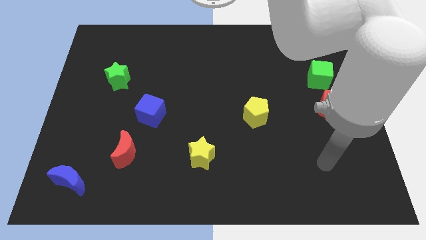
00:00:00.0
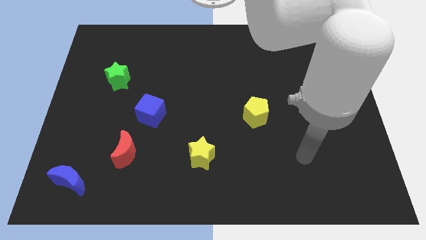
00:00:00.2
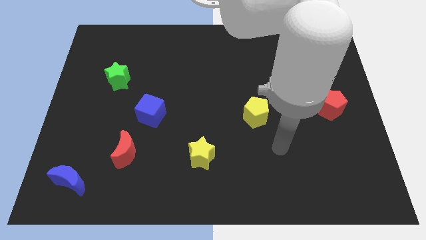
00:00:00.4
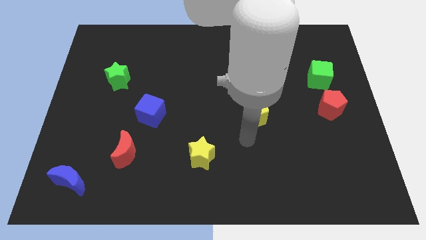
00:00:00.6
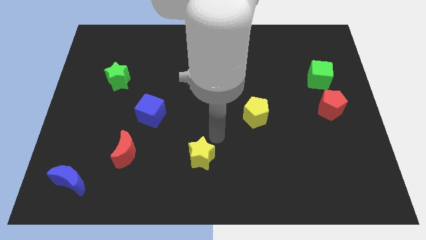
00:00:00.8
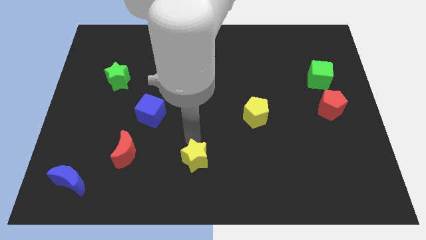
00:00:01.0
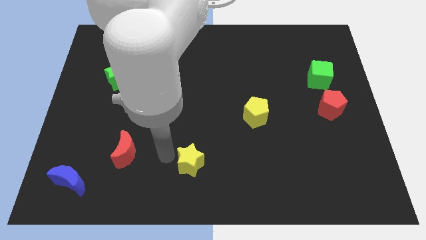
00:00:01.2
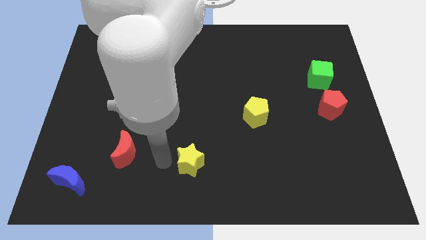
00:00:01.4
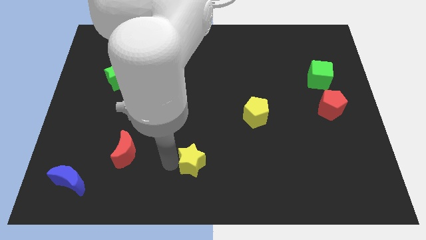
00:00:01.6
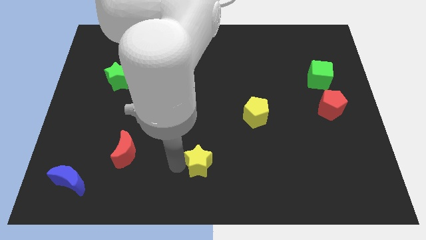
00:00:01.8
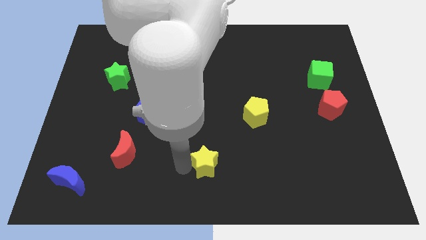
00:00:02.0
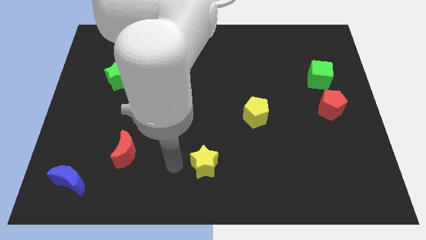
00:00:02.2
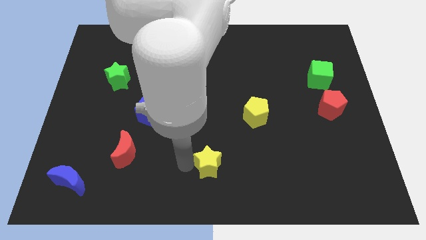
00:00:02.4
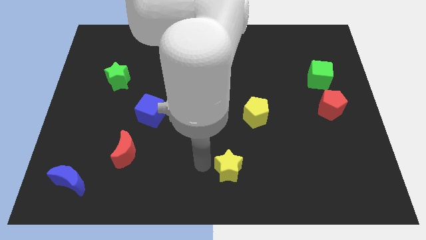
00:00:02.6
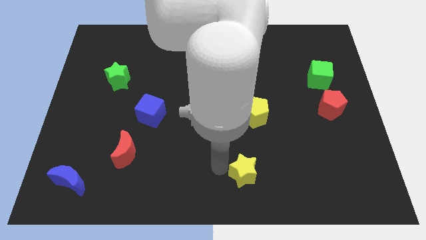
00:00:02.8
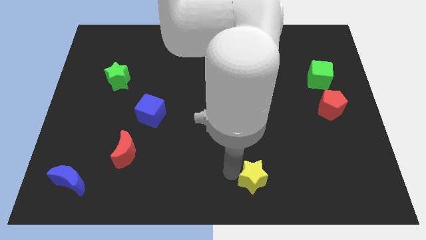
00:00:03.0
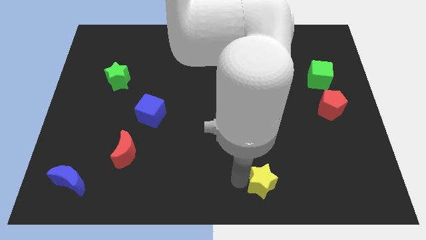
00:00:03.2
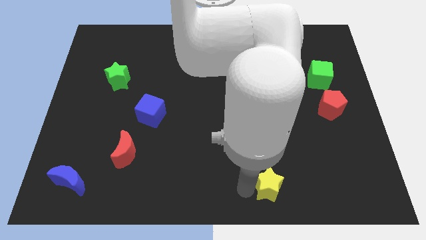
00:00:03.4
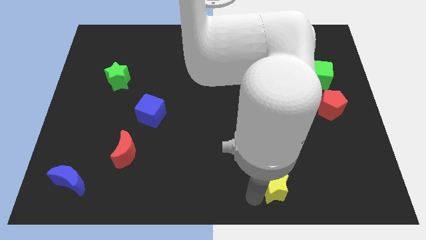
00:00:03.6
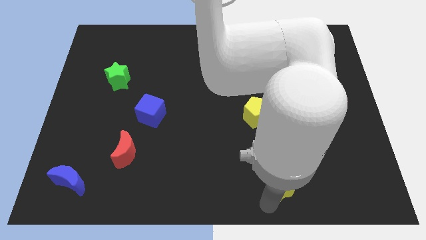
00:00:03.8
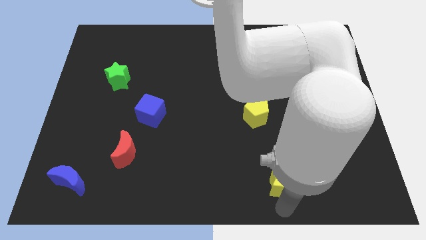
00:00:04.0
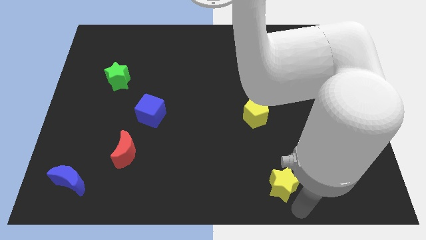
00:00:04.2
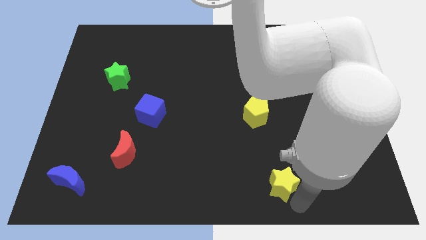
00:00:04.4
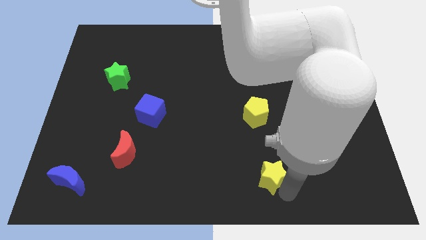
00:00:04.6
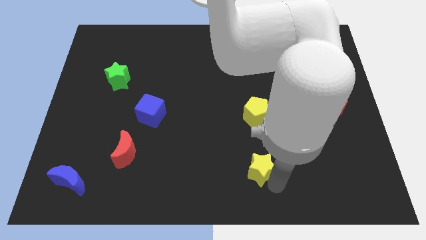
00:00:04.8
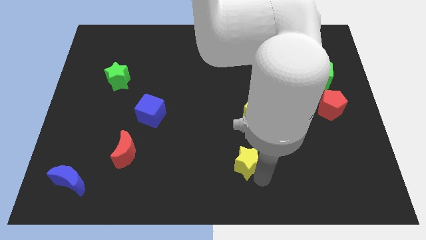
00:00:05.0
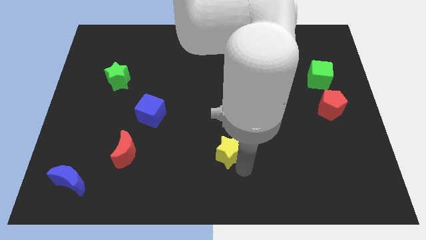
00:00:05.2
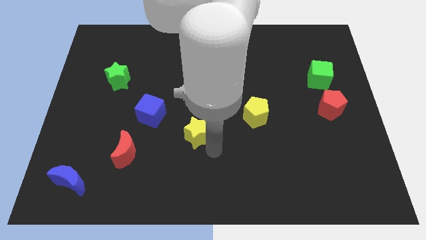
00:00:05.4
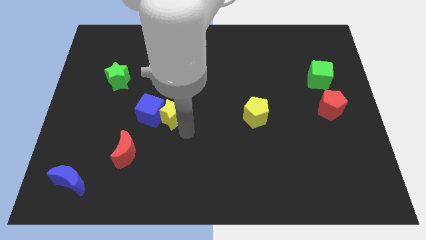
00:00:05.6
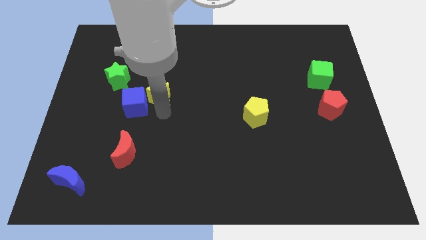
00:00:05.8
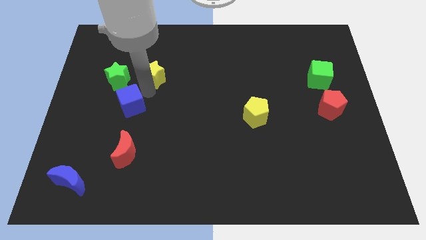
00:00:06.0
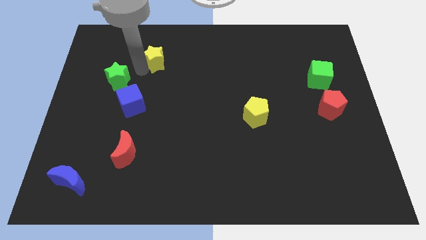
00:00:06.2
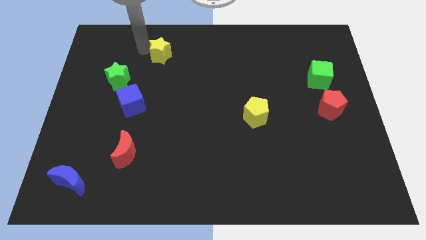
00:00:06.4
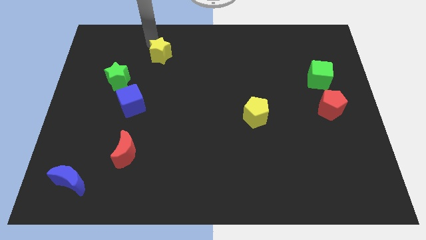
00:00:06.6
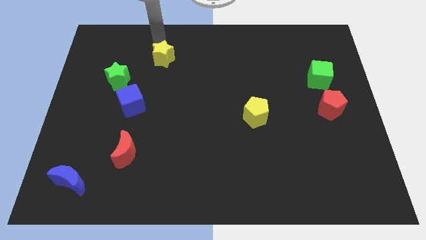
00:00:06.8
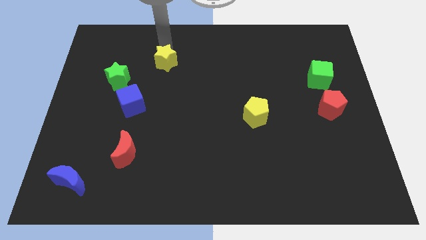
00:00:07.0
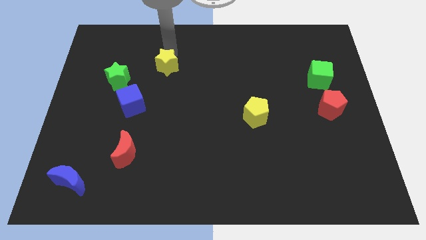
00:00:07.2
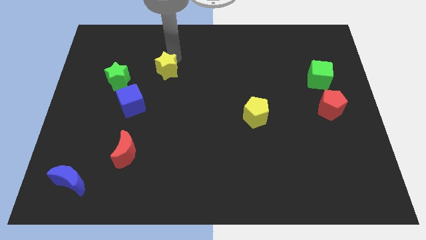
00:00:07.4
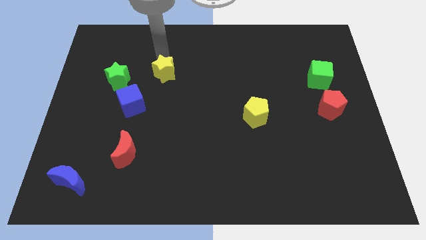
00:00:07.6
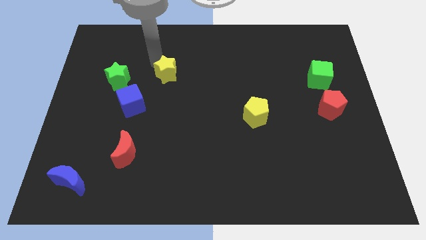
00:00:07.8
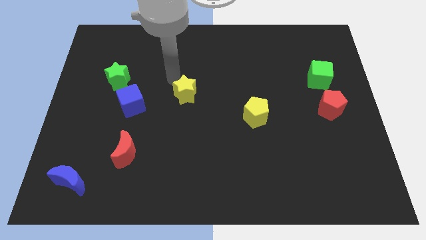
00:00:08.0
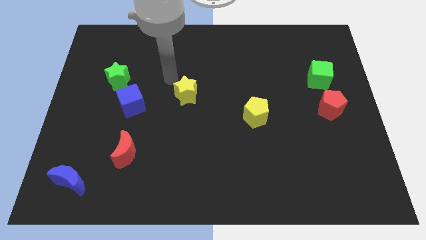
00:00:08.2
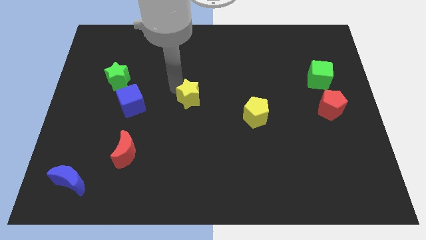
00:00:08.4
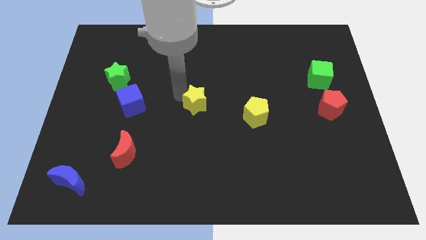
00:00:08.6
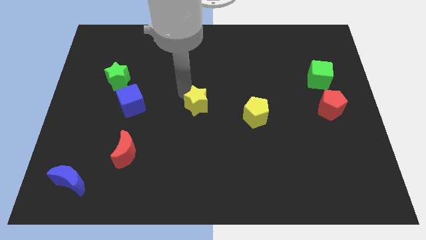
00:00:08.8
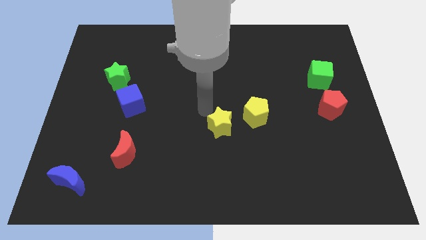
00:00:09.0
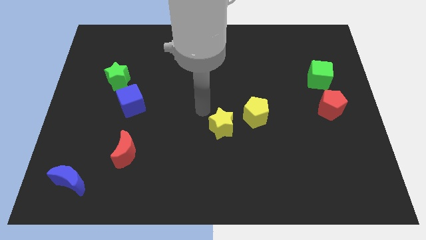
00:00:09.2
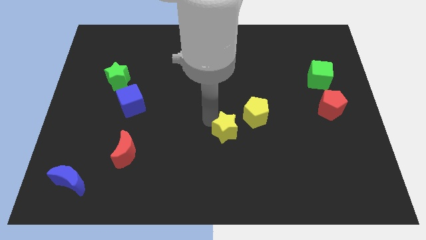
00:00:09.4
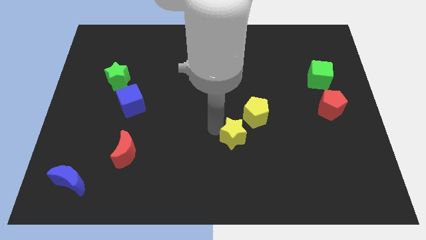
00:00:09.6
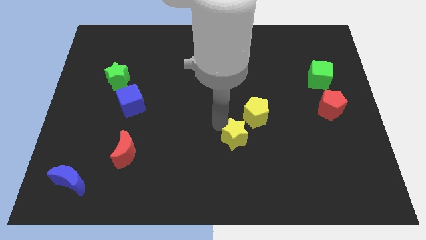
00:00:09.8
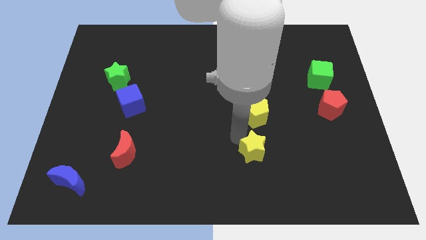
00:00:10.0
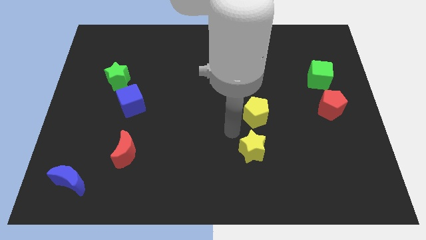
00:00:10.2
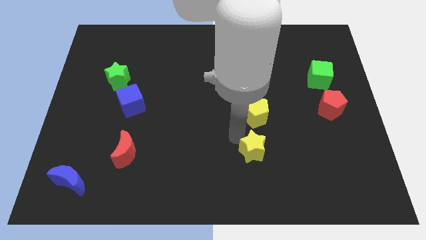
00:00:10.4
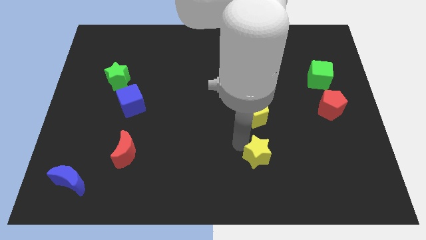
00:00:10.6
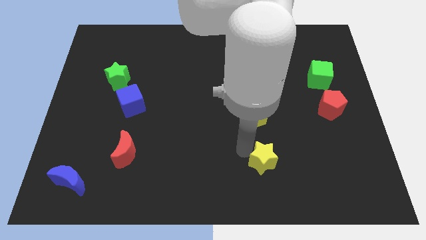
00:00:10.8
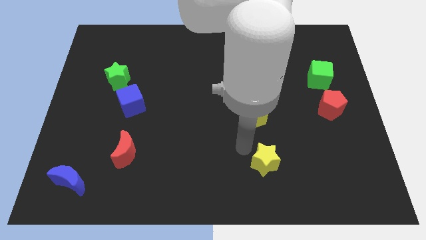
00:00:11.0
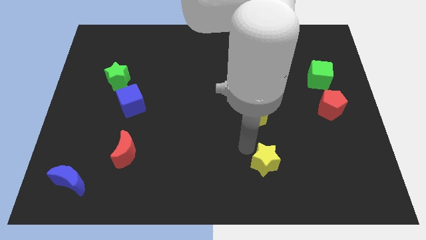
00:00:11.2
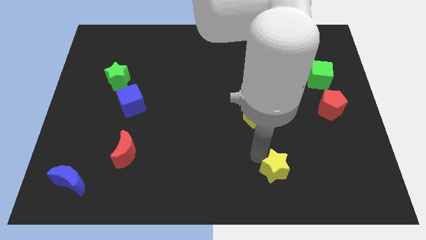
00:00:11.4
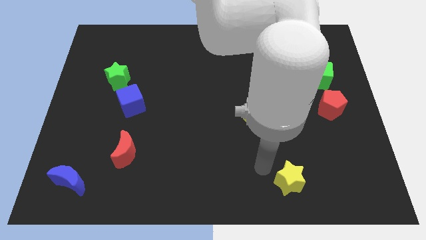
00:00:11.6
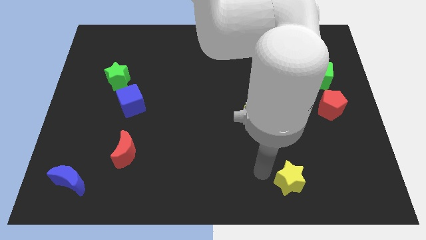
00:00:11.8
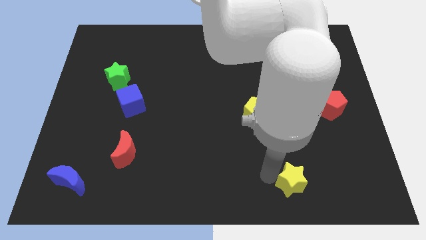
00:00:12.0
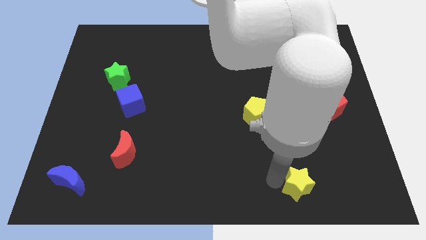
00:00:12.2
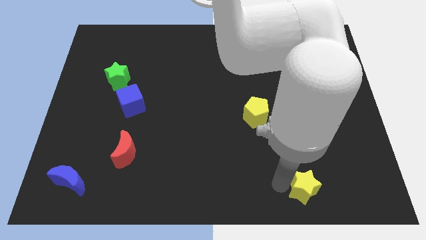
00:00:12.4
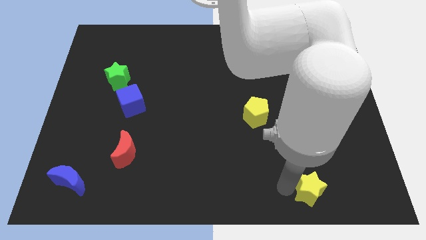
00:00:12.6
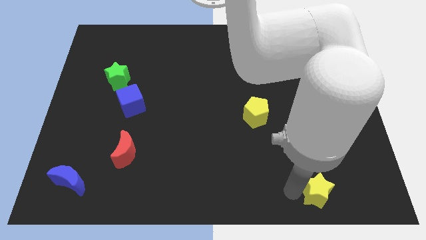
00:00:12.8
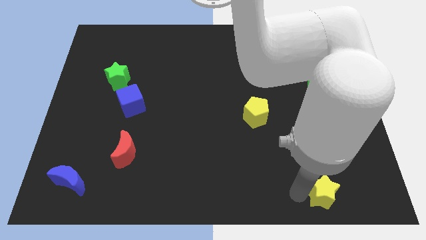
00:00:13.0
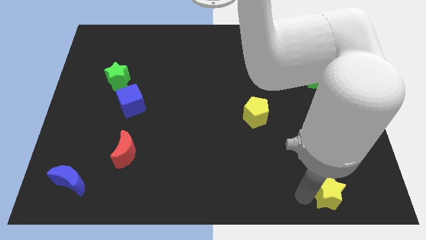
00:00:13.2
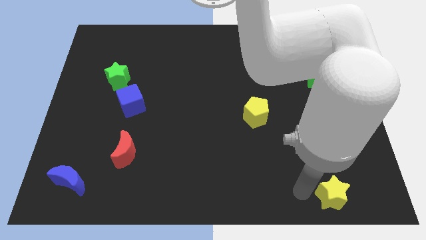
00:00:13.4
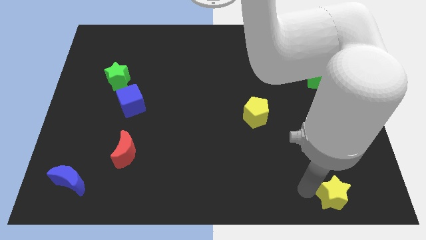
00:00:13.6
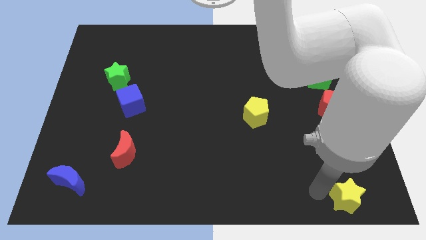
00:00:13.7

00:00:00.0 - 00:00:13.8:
push the yellow star to the bottom right
